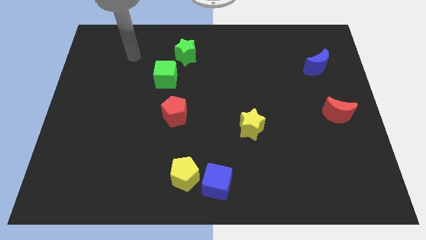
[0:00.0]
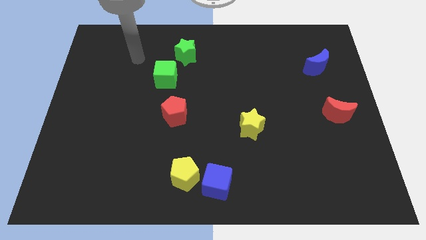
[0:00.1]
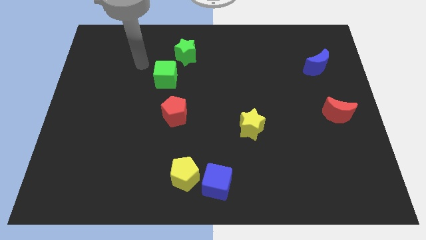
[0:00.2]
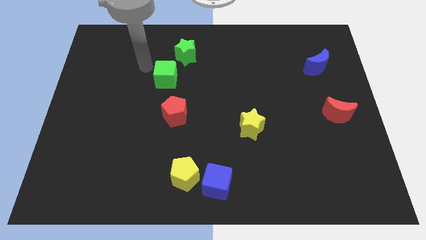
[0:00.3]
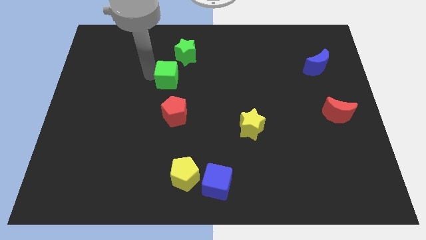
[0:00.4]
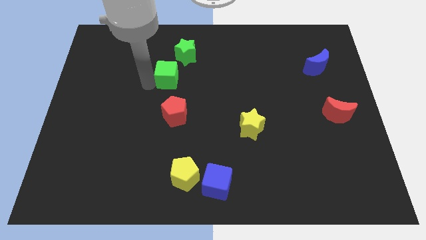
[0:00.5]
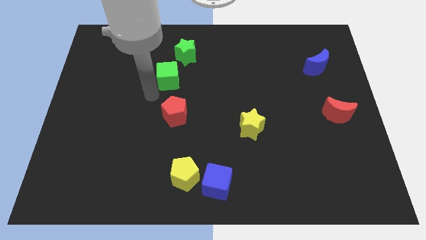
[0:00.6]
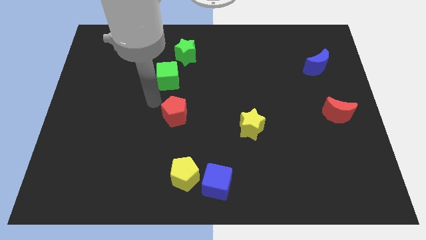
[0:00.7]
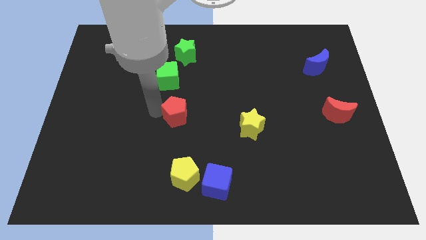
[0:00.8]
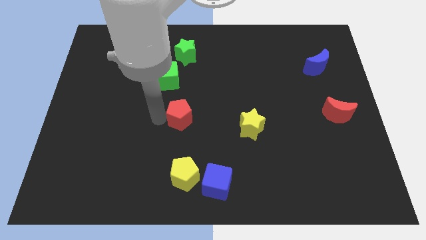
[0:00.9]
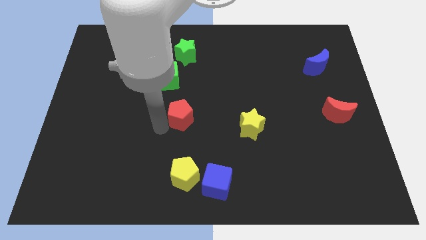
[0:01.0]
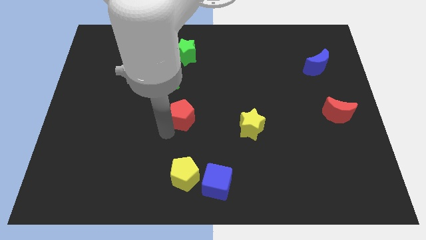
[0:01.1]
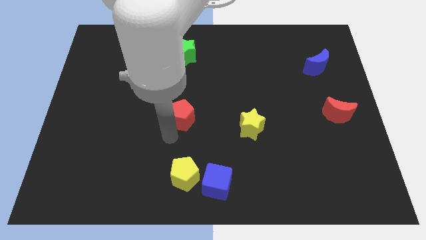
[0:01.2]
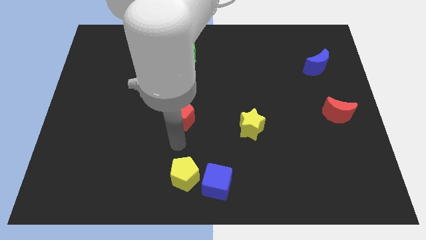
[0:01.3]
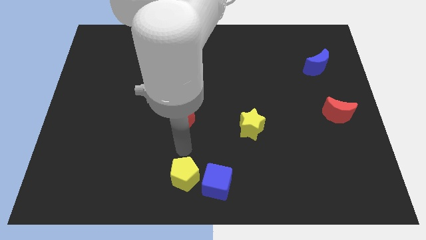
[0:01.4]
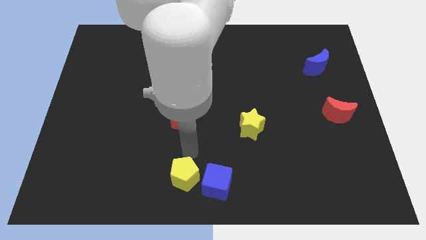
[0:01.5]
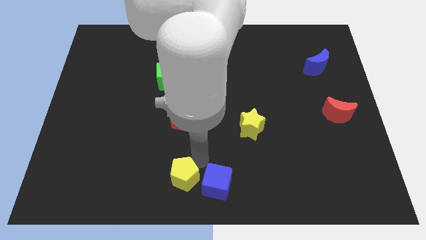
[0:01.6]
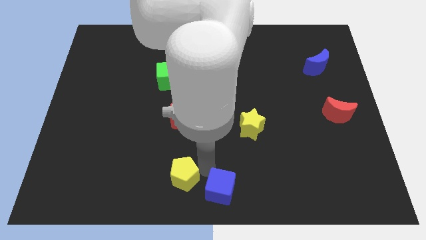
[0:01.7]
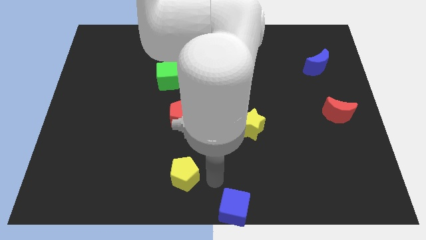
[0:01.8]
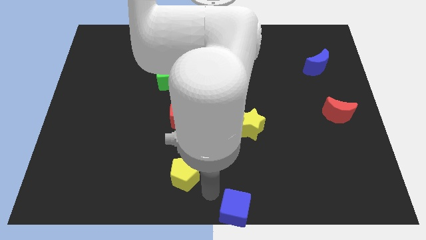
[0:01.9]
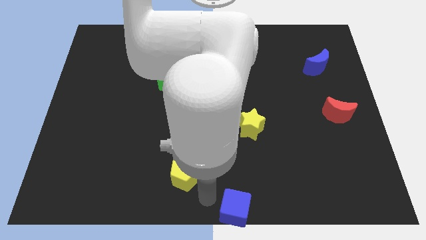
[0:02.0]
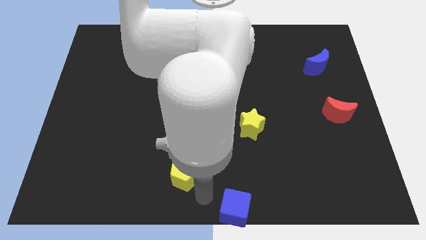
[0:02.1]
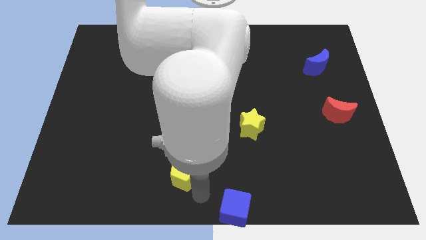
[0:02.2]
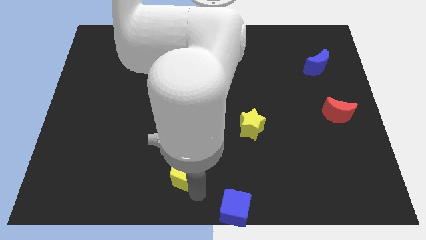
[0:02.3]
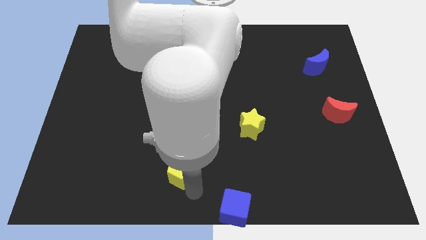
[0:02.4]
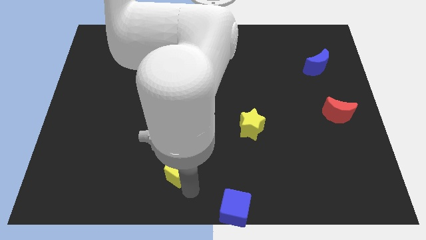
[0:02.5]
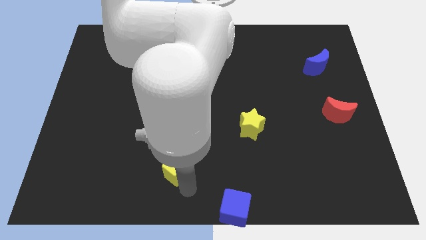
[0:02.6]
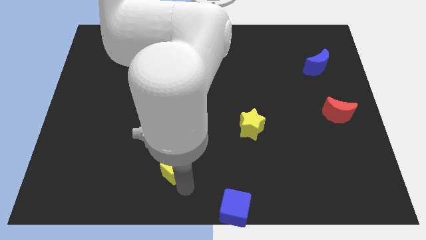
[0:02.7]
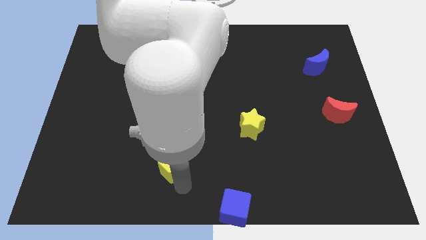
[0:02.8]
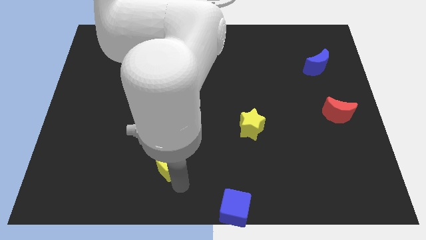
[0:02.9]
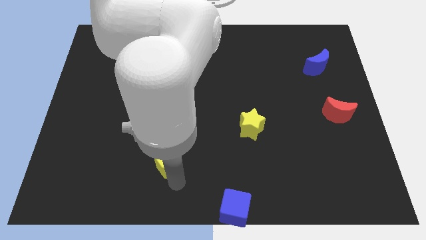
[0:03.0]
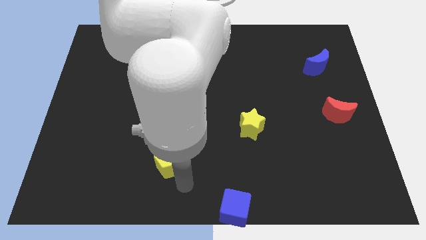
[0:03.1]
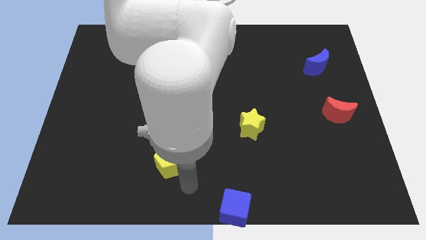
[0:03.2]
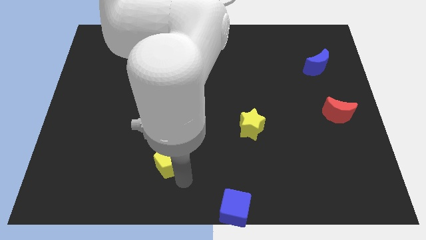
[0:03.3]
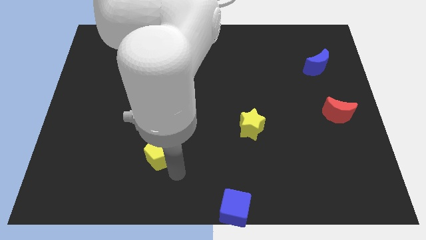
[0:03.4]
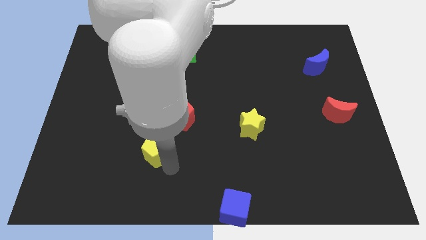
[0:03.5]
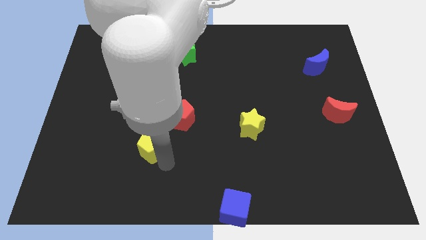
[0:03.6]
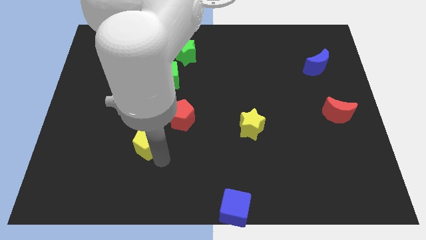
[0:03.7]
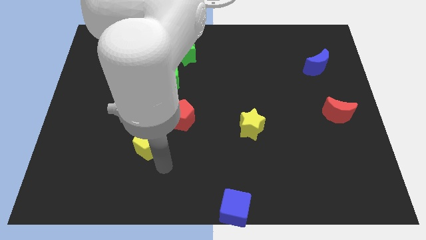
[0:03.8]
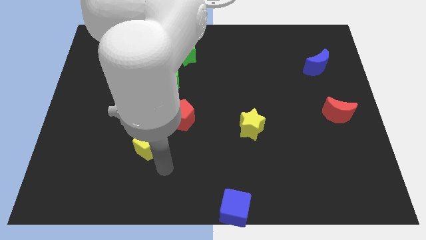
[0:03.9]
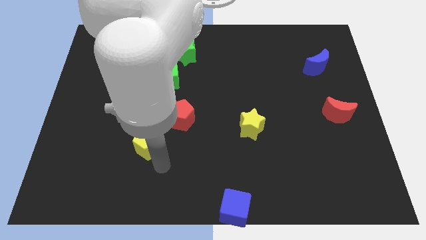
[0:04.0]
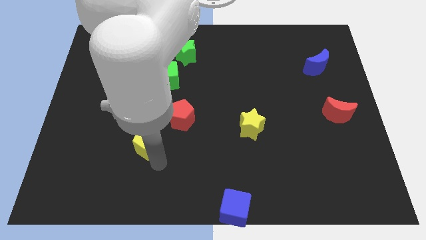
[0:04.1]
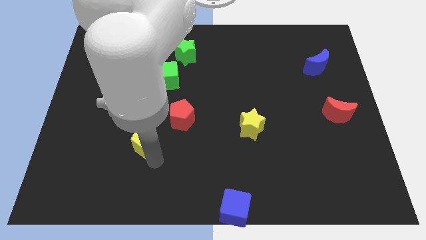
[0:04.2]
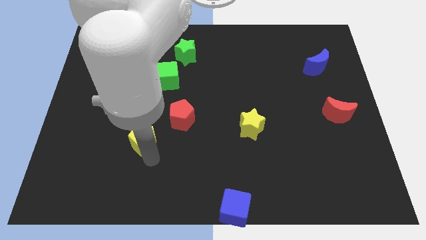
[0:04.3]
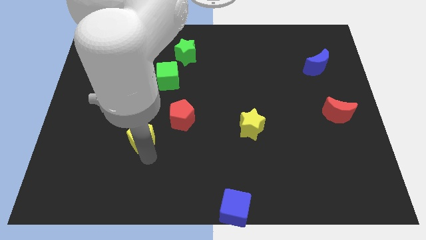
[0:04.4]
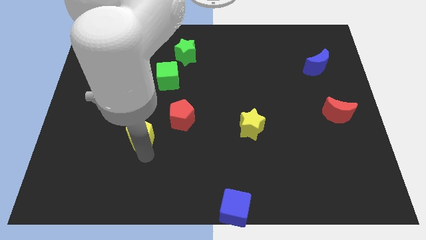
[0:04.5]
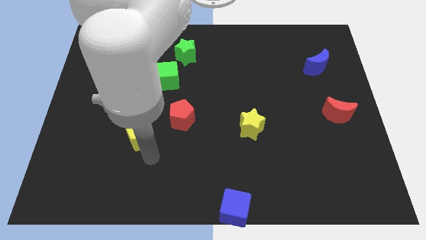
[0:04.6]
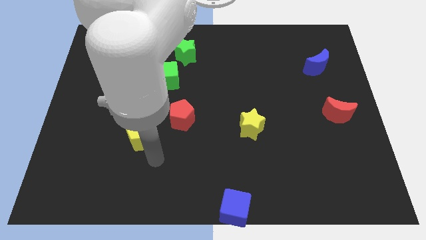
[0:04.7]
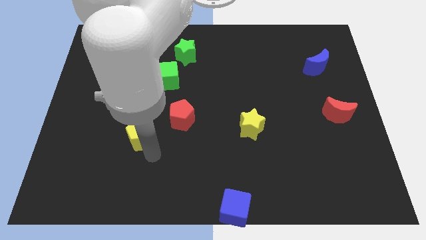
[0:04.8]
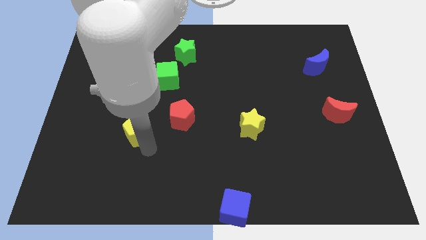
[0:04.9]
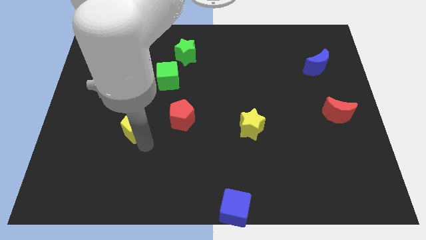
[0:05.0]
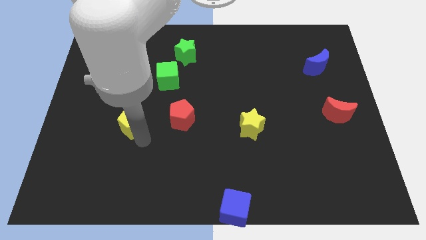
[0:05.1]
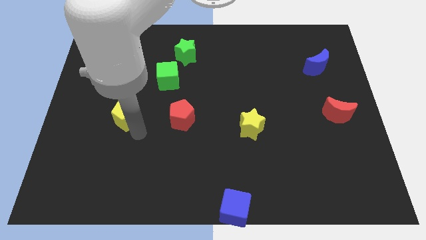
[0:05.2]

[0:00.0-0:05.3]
push the yellow pentagon upwards and left

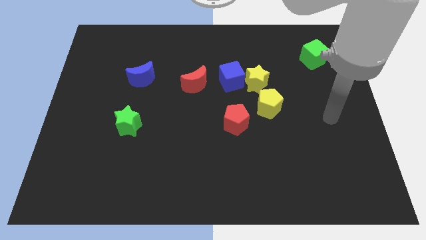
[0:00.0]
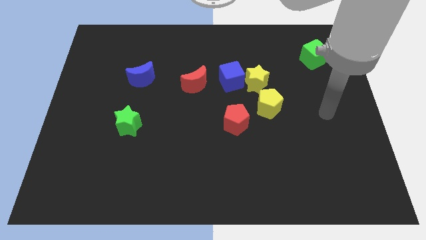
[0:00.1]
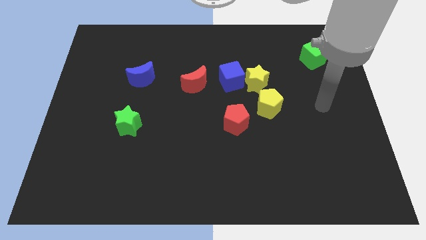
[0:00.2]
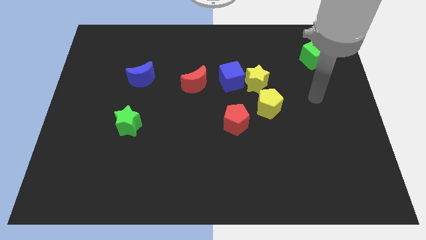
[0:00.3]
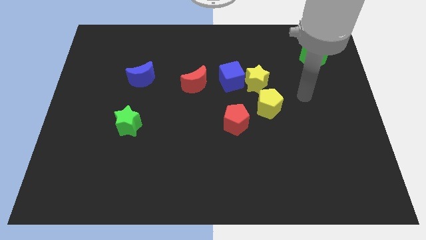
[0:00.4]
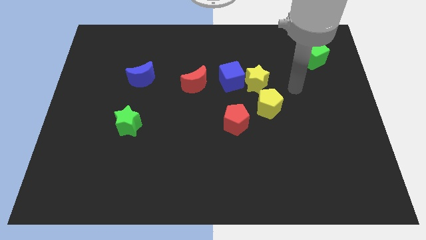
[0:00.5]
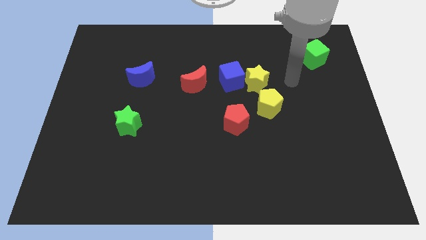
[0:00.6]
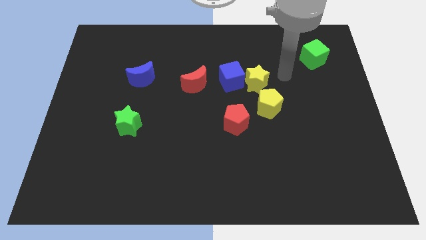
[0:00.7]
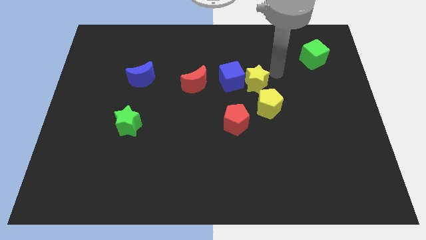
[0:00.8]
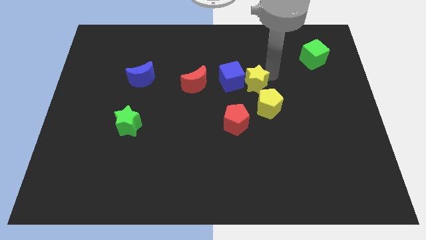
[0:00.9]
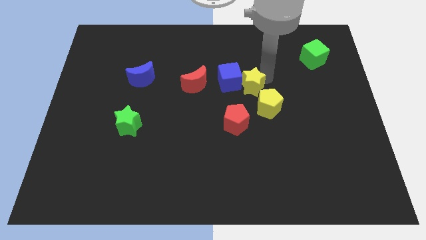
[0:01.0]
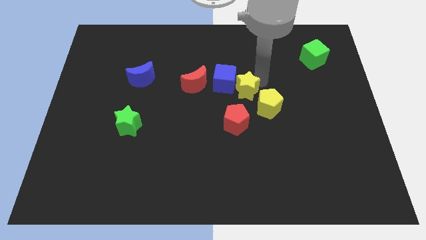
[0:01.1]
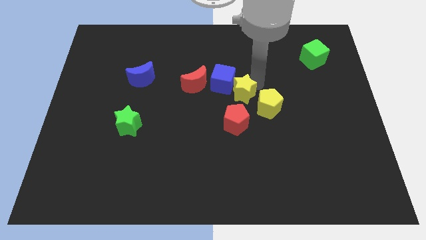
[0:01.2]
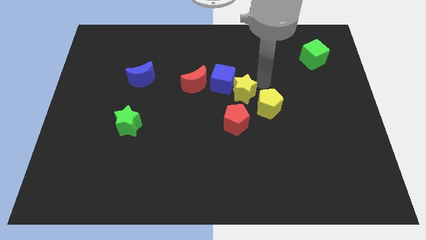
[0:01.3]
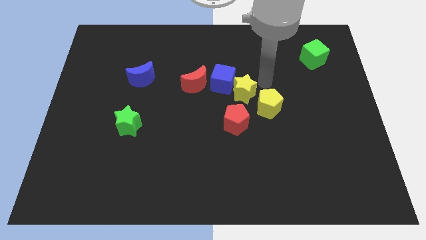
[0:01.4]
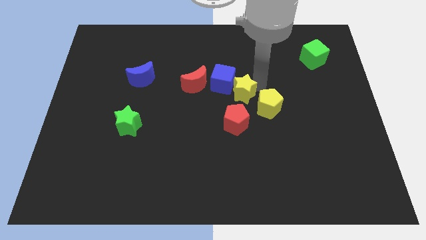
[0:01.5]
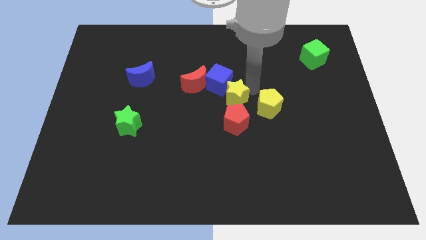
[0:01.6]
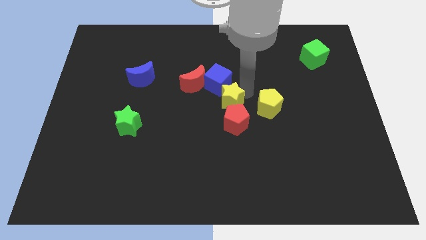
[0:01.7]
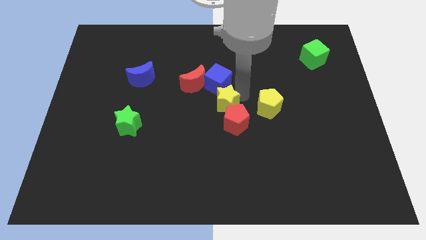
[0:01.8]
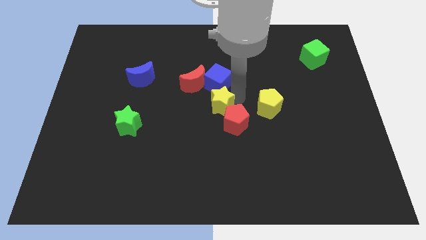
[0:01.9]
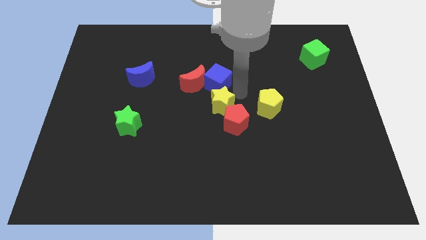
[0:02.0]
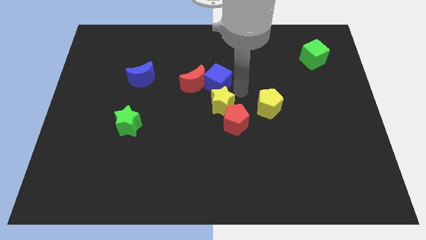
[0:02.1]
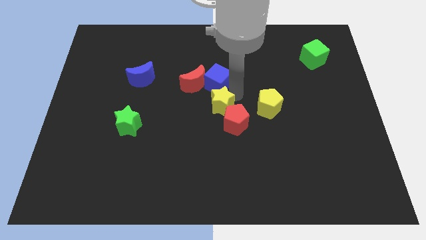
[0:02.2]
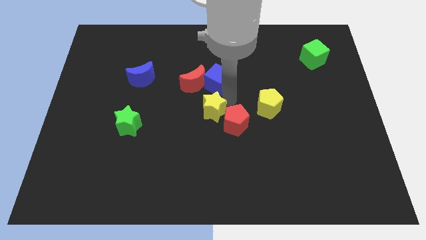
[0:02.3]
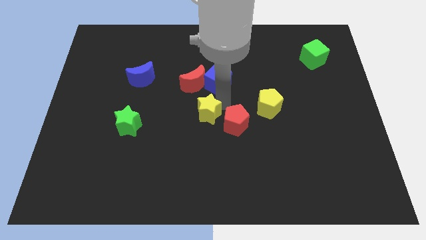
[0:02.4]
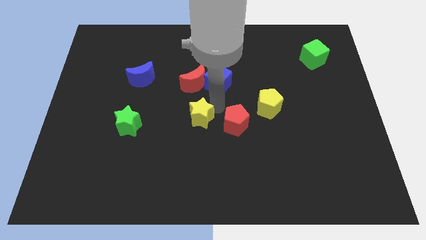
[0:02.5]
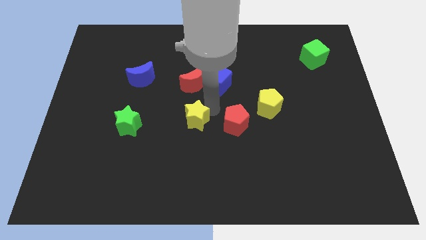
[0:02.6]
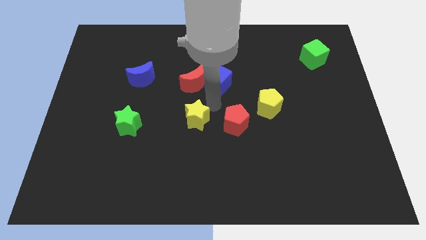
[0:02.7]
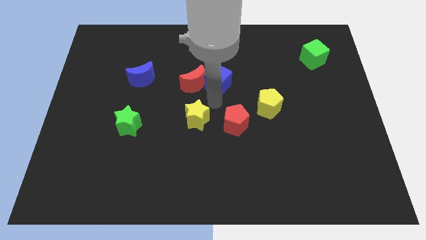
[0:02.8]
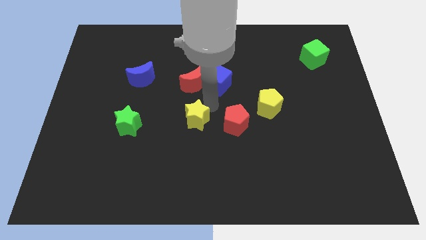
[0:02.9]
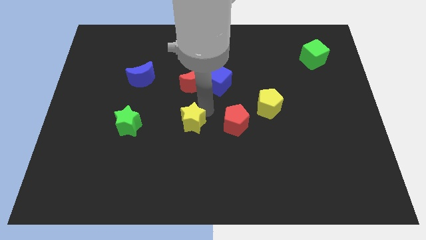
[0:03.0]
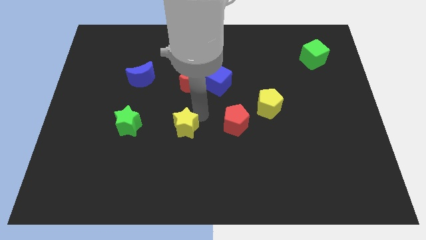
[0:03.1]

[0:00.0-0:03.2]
push the yellow star downwards and left diagonally
